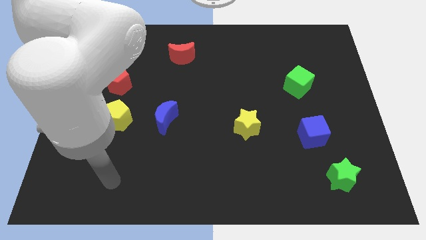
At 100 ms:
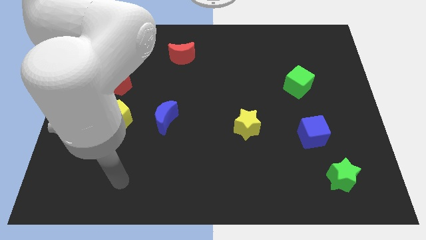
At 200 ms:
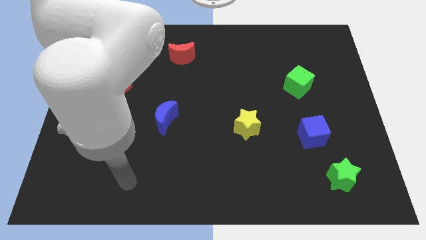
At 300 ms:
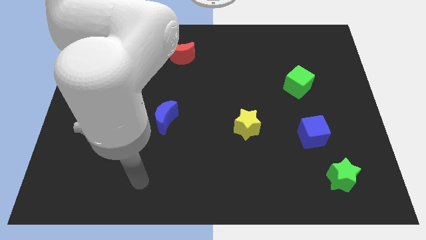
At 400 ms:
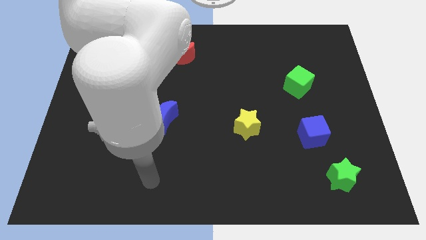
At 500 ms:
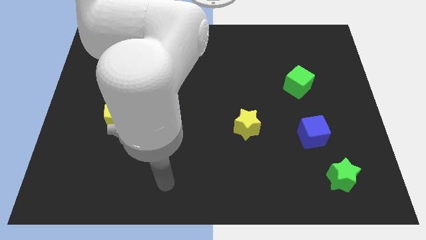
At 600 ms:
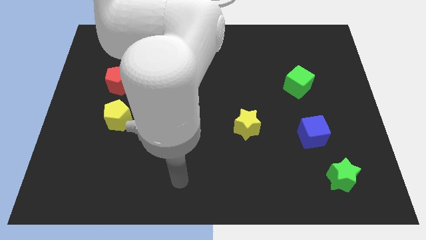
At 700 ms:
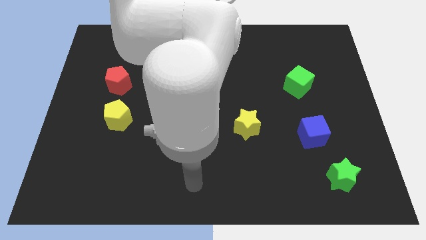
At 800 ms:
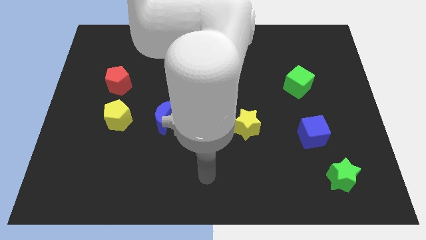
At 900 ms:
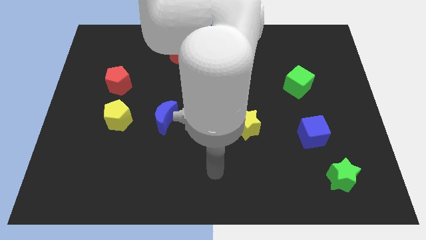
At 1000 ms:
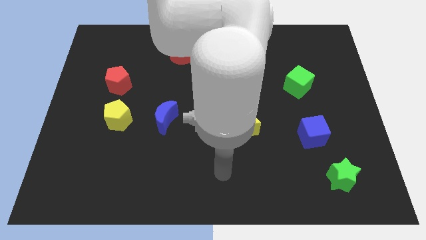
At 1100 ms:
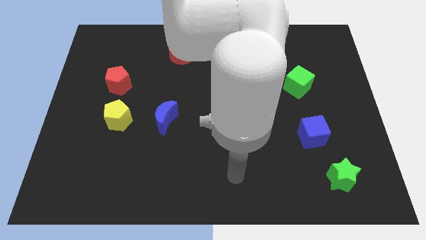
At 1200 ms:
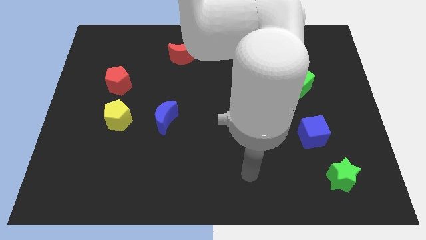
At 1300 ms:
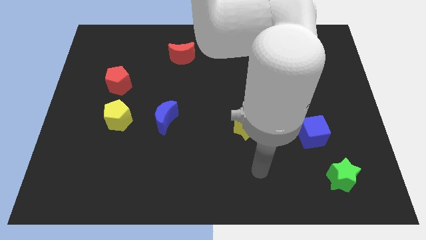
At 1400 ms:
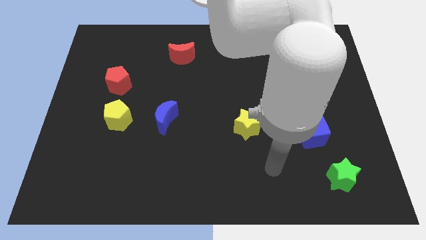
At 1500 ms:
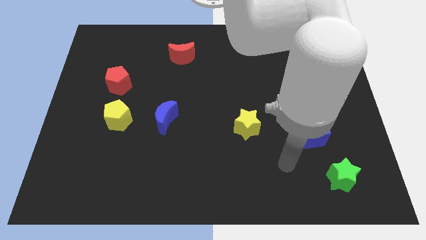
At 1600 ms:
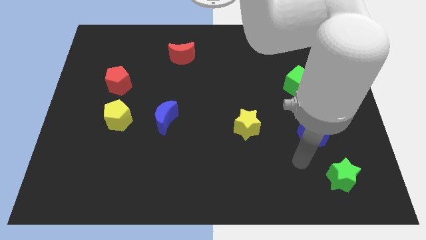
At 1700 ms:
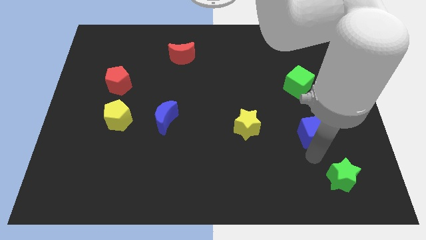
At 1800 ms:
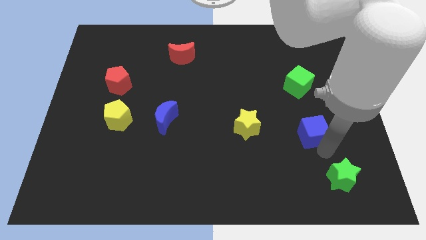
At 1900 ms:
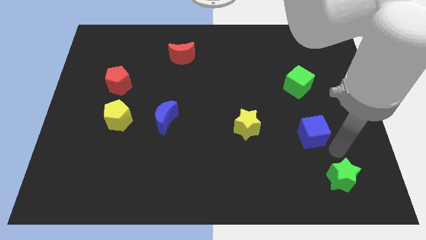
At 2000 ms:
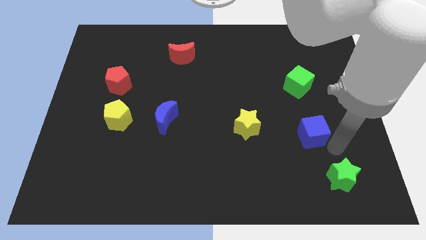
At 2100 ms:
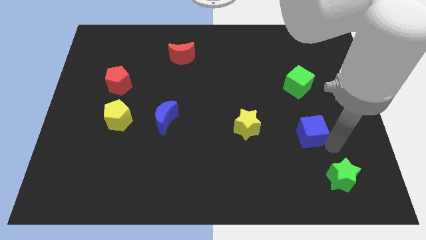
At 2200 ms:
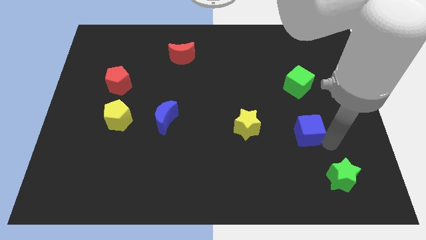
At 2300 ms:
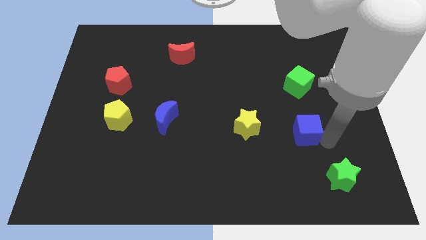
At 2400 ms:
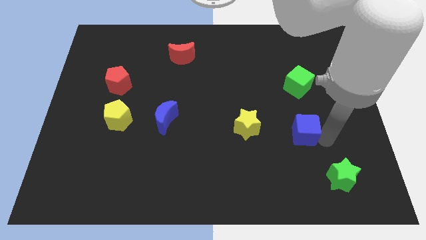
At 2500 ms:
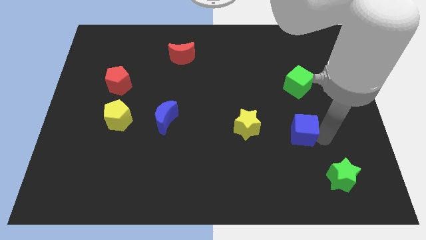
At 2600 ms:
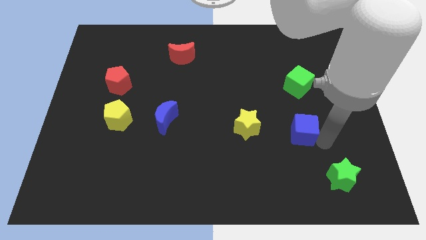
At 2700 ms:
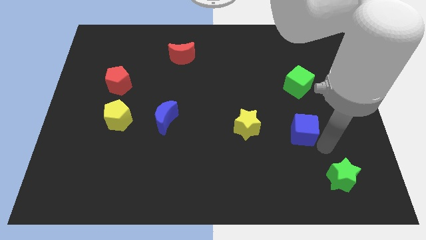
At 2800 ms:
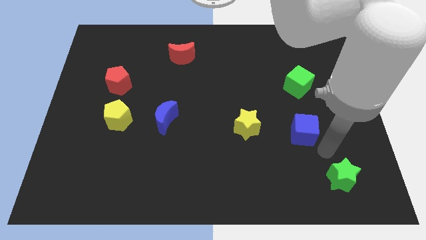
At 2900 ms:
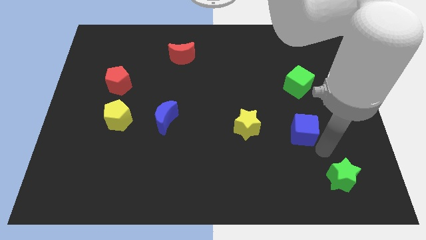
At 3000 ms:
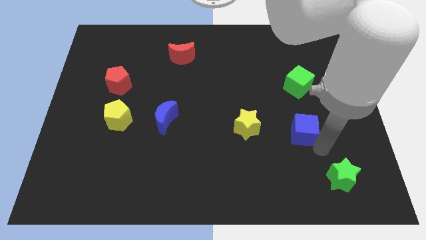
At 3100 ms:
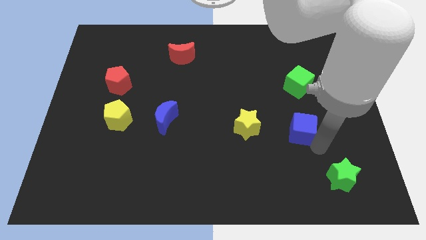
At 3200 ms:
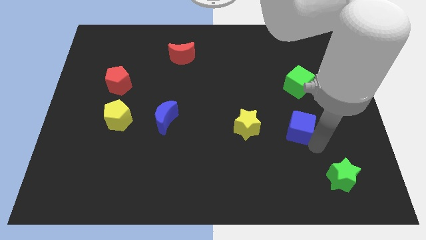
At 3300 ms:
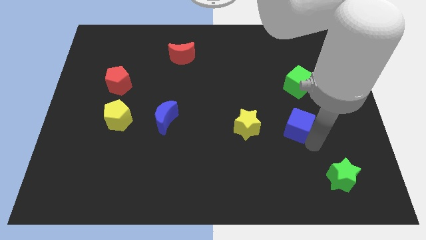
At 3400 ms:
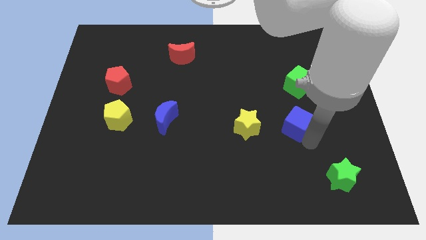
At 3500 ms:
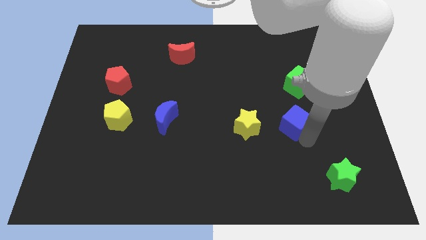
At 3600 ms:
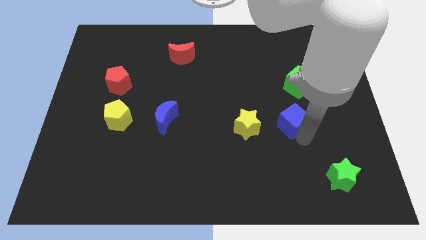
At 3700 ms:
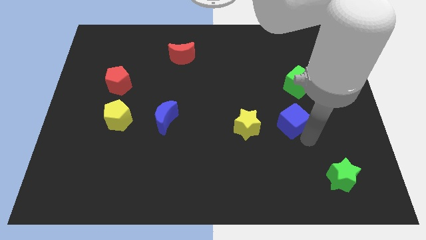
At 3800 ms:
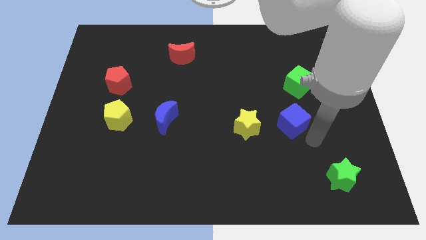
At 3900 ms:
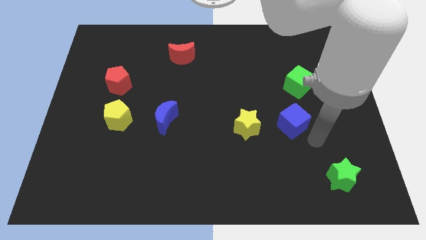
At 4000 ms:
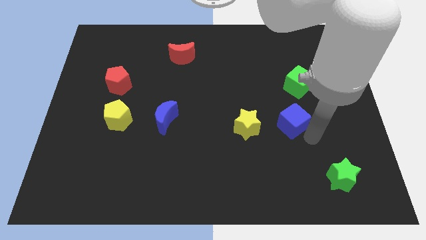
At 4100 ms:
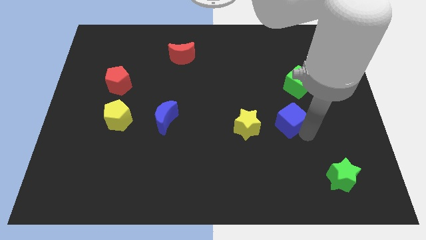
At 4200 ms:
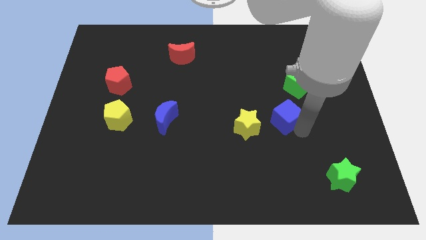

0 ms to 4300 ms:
push the blue cube slightly upwards and left diagonally

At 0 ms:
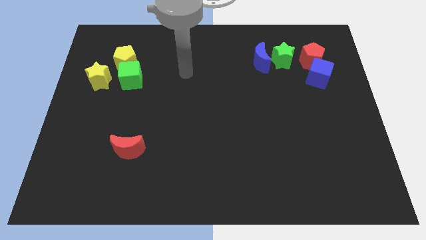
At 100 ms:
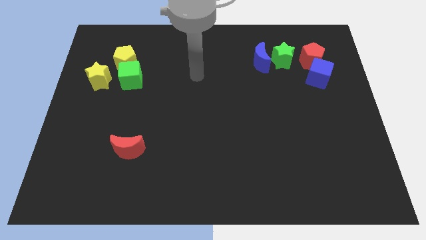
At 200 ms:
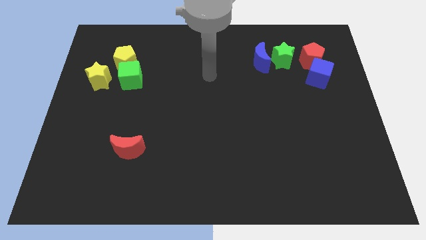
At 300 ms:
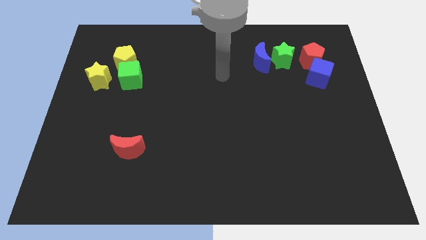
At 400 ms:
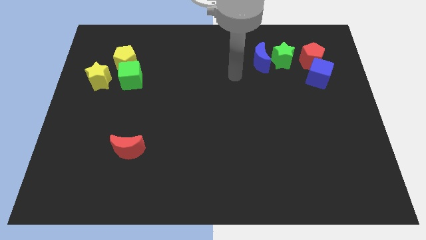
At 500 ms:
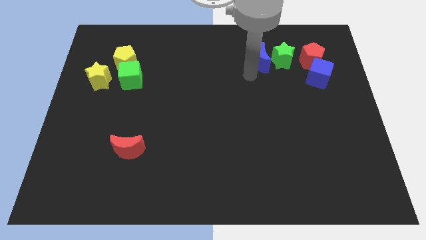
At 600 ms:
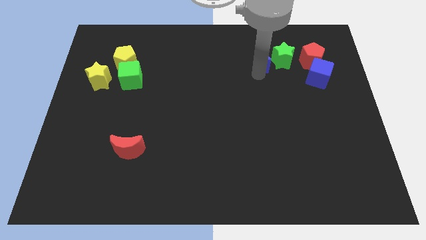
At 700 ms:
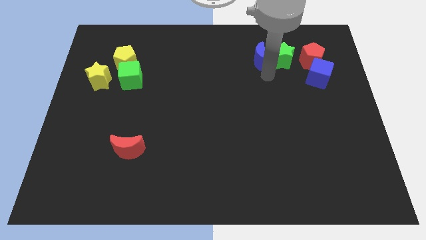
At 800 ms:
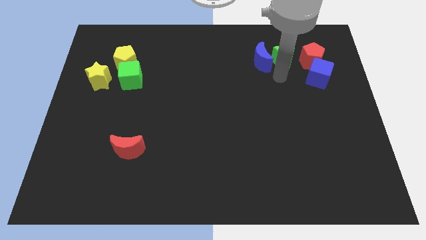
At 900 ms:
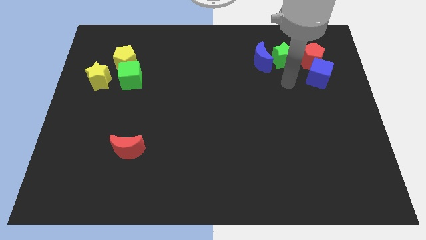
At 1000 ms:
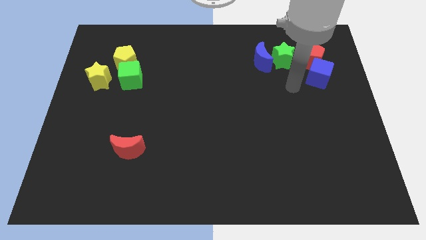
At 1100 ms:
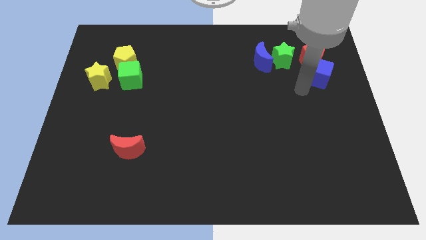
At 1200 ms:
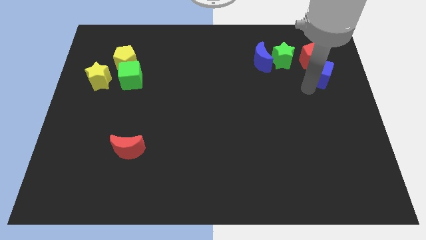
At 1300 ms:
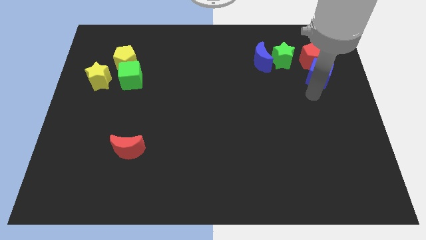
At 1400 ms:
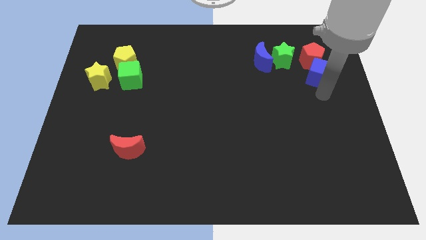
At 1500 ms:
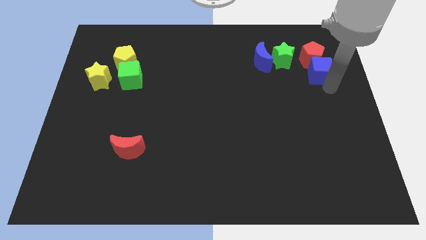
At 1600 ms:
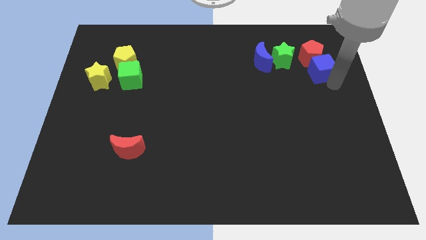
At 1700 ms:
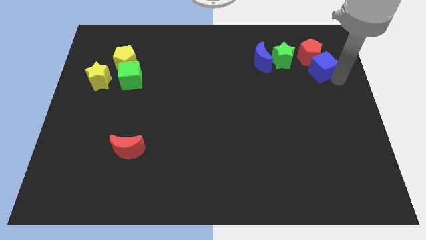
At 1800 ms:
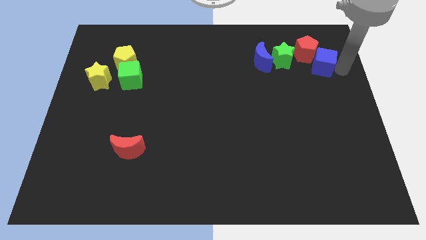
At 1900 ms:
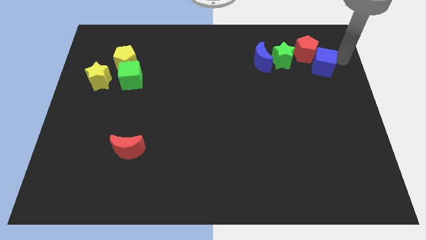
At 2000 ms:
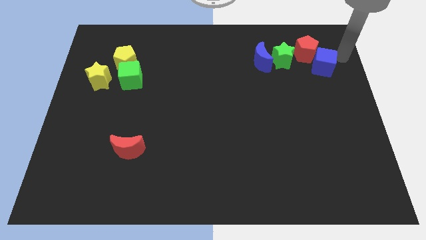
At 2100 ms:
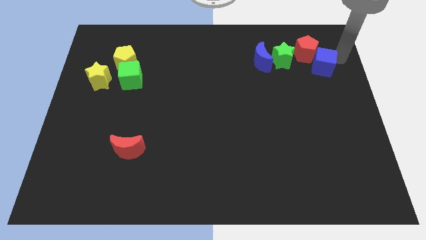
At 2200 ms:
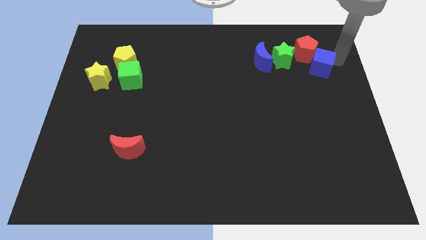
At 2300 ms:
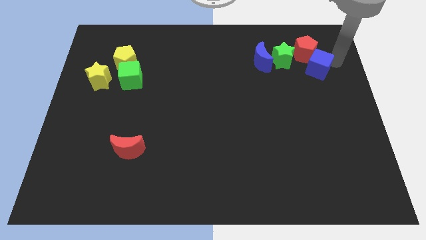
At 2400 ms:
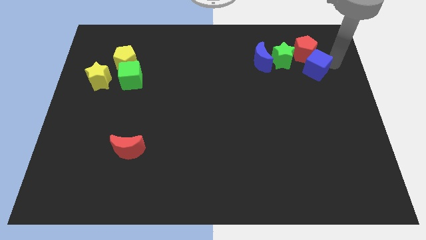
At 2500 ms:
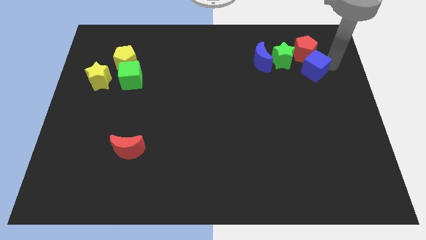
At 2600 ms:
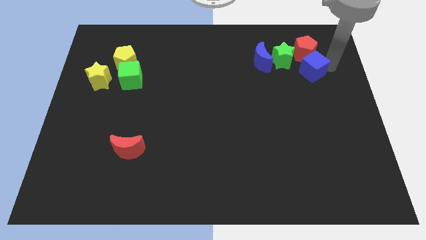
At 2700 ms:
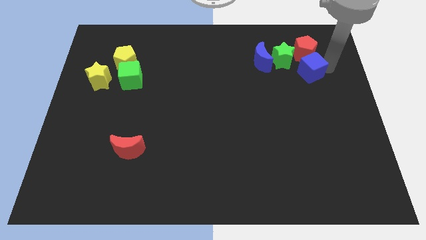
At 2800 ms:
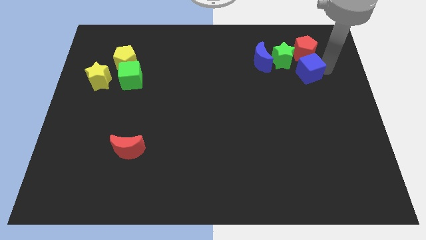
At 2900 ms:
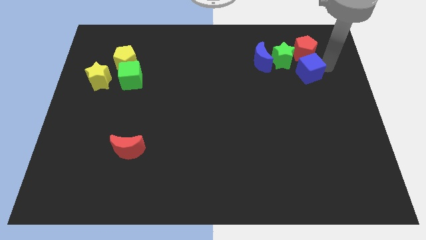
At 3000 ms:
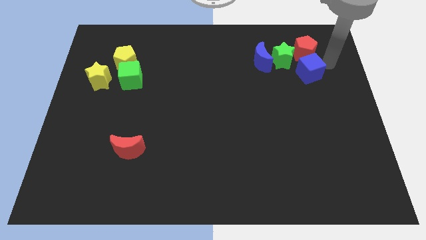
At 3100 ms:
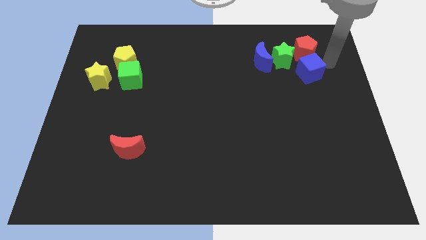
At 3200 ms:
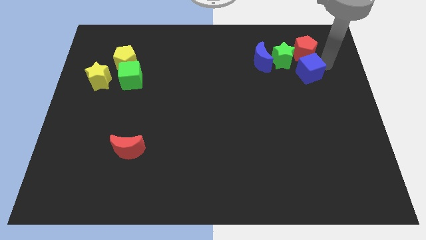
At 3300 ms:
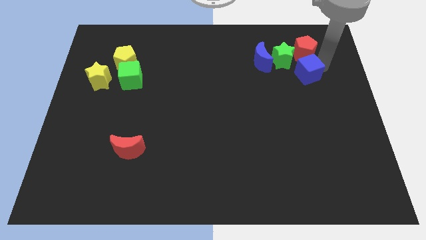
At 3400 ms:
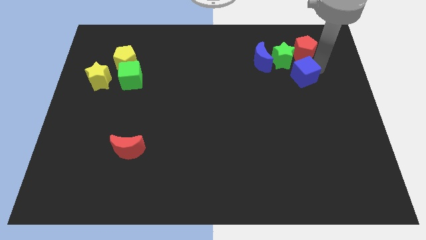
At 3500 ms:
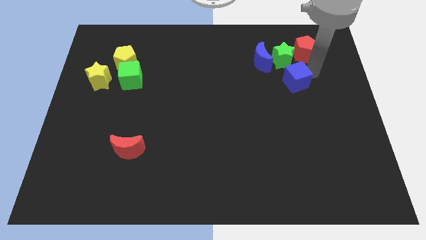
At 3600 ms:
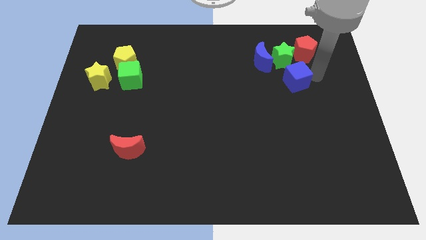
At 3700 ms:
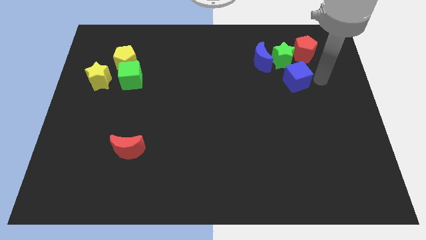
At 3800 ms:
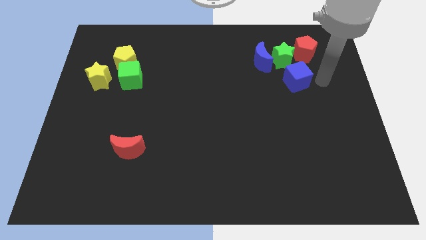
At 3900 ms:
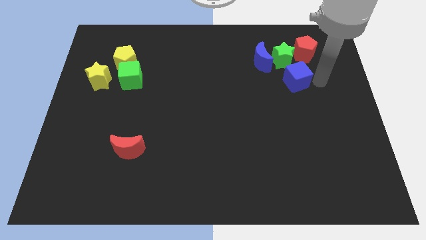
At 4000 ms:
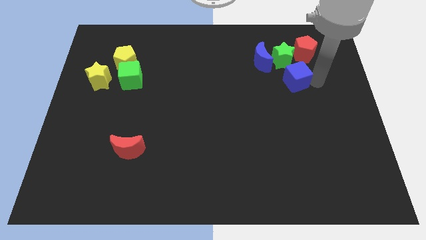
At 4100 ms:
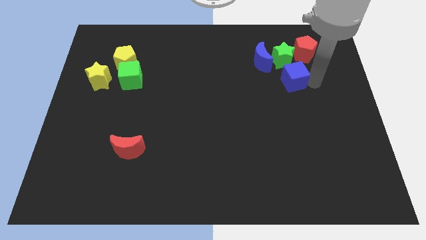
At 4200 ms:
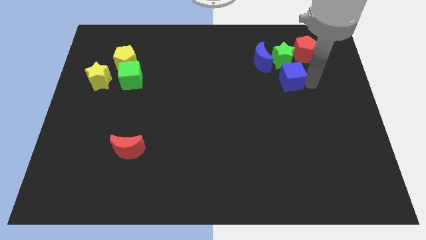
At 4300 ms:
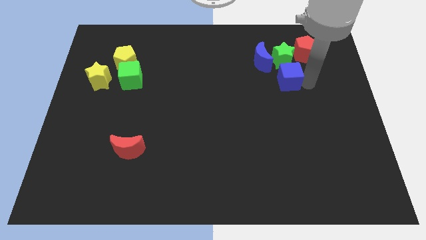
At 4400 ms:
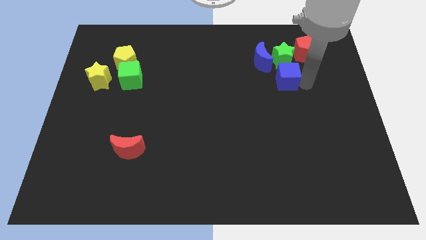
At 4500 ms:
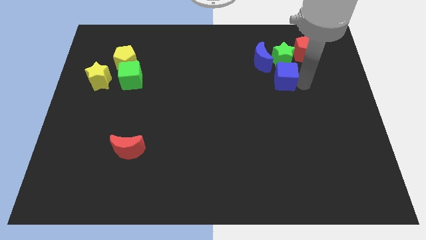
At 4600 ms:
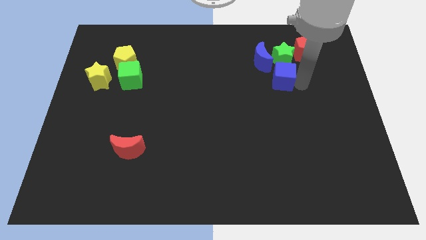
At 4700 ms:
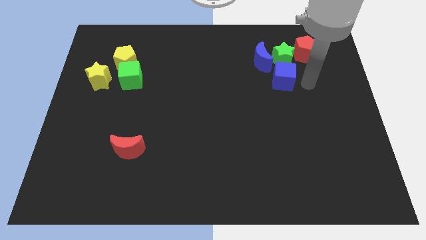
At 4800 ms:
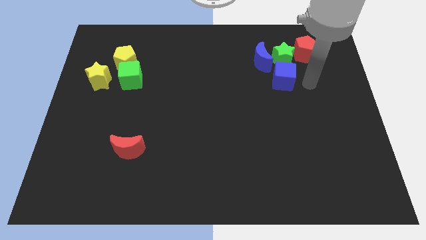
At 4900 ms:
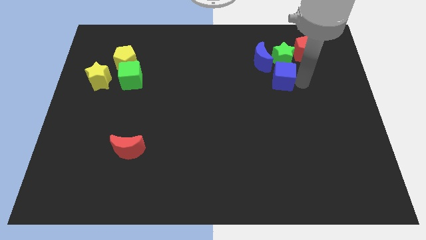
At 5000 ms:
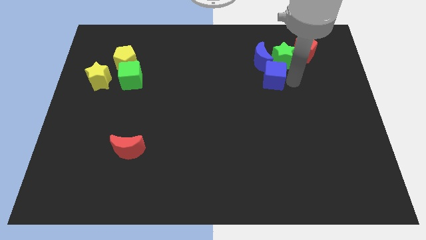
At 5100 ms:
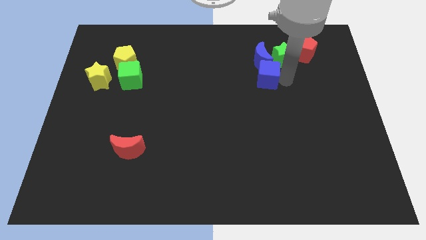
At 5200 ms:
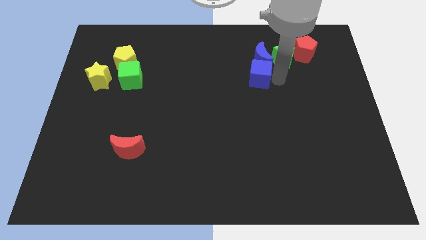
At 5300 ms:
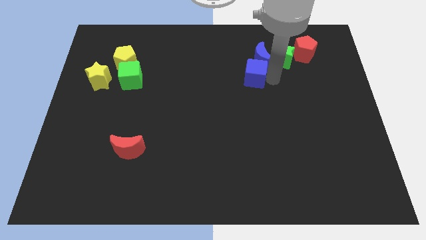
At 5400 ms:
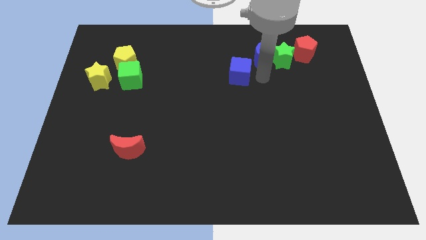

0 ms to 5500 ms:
slide the blue cube left
